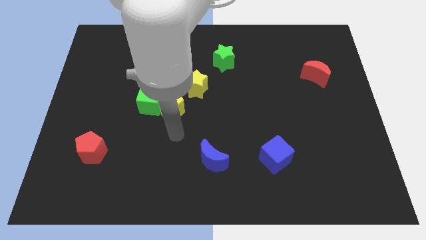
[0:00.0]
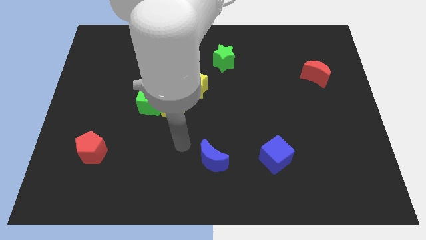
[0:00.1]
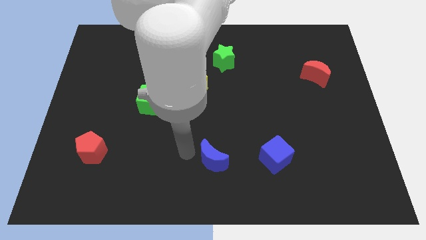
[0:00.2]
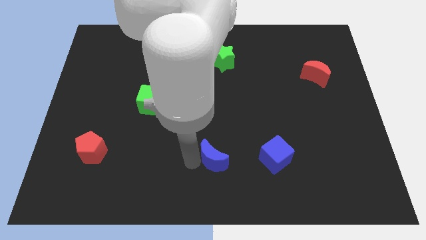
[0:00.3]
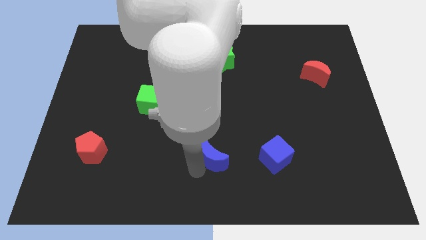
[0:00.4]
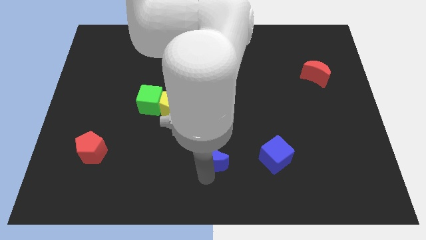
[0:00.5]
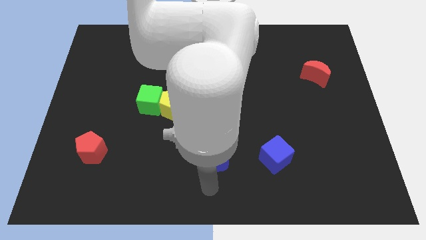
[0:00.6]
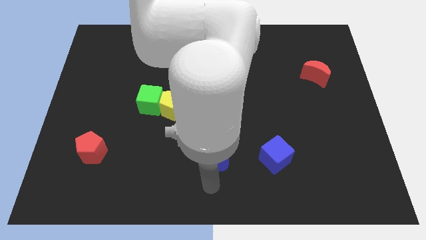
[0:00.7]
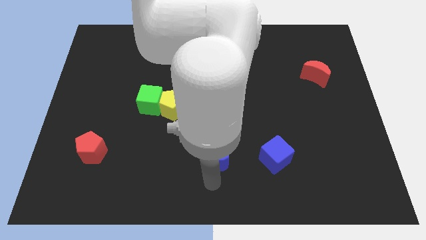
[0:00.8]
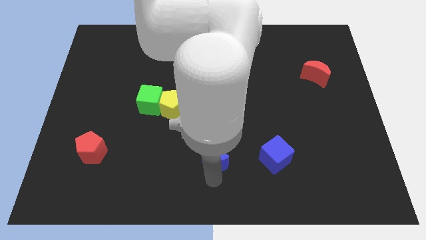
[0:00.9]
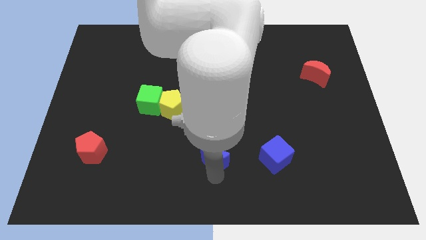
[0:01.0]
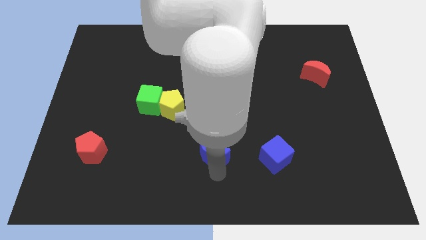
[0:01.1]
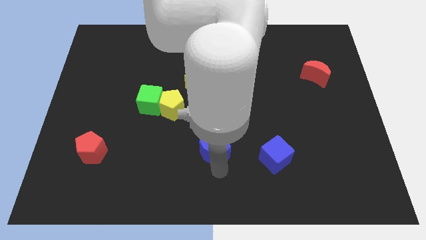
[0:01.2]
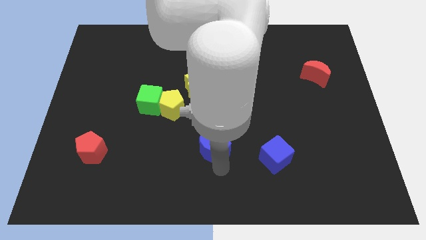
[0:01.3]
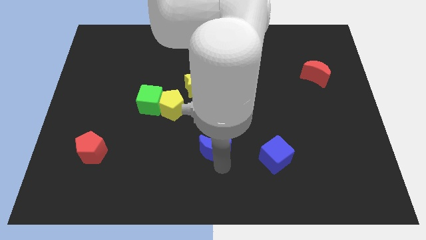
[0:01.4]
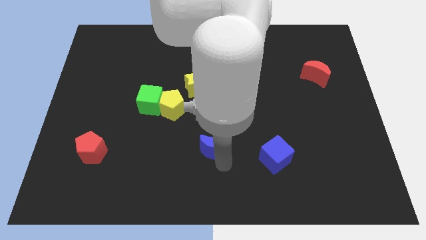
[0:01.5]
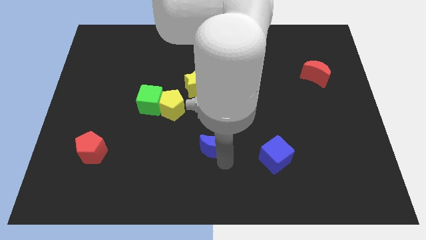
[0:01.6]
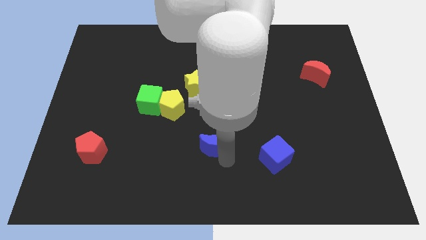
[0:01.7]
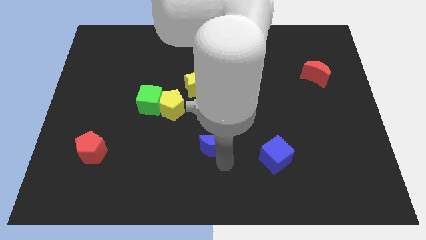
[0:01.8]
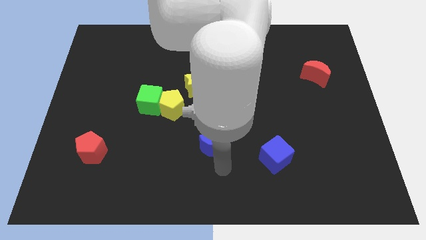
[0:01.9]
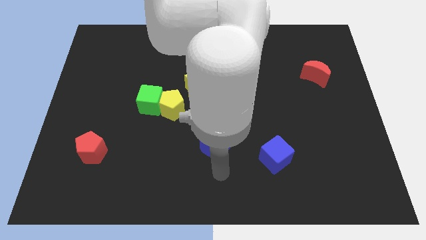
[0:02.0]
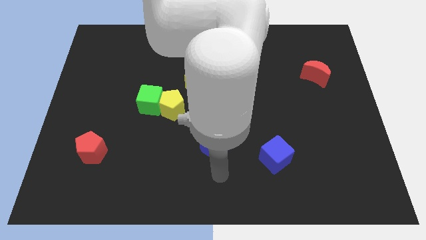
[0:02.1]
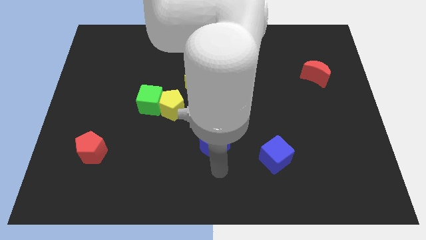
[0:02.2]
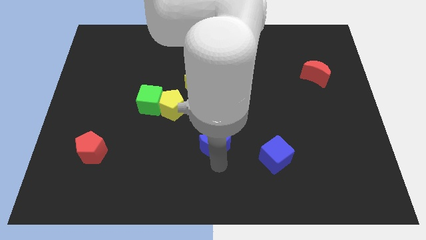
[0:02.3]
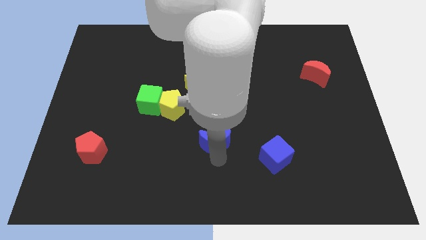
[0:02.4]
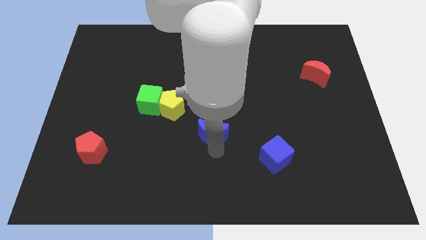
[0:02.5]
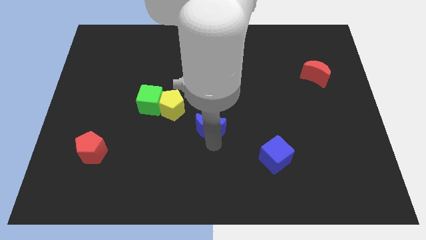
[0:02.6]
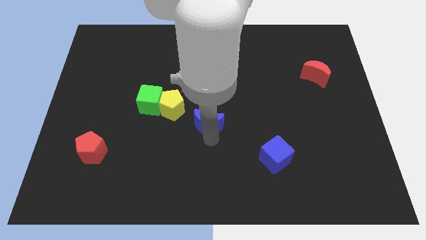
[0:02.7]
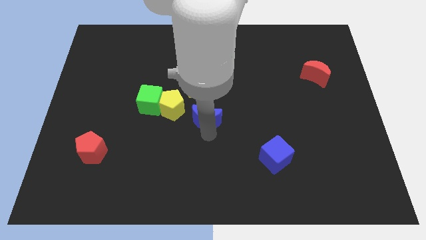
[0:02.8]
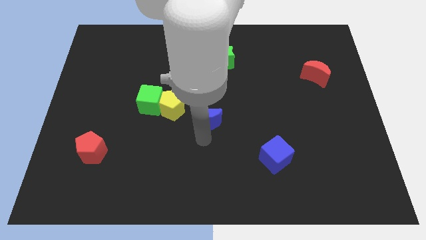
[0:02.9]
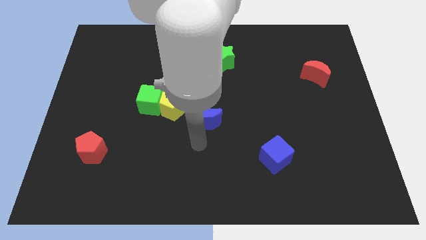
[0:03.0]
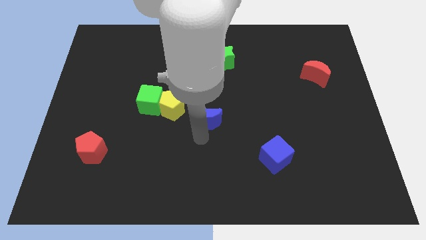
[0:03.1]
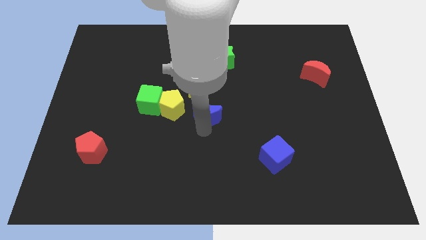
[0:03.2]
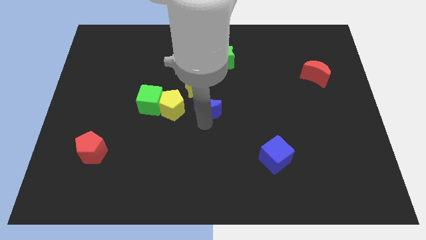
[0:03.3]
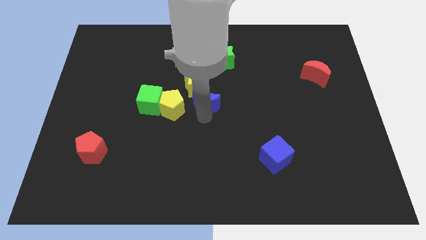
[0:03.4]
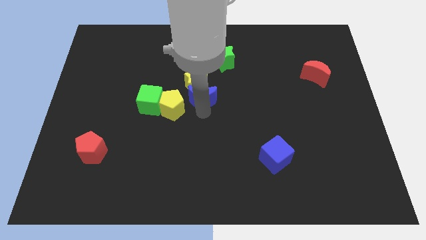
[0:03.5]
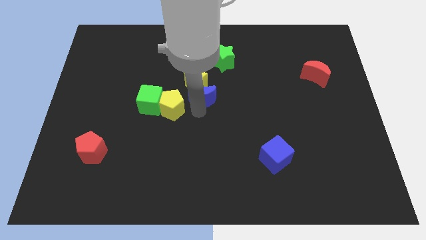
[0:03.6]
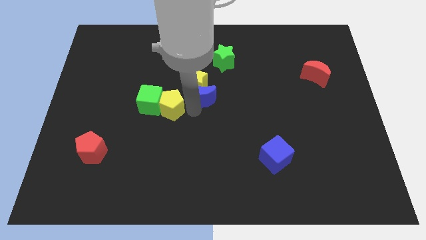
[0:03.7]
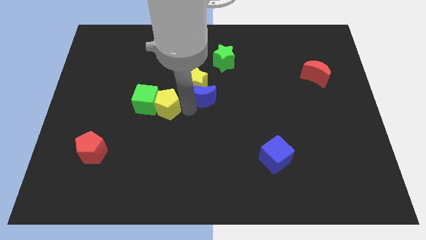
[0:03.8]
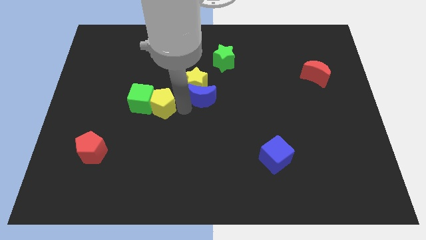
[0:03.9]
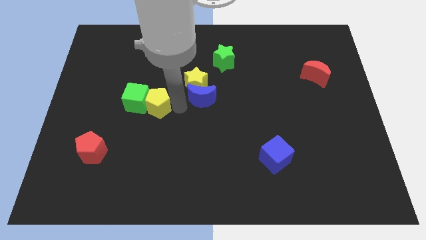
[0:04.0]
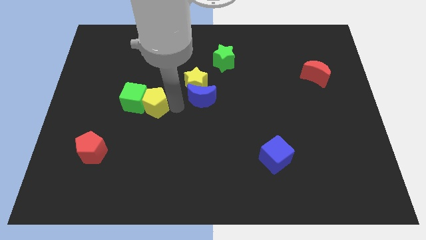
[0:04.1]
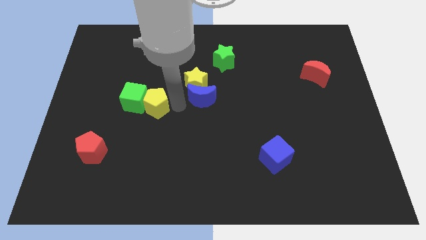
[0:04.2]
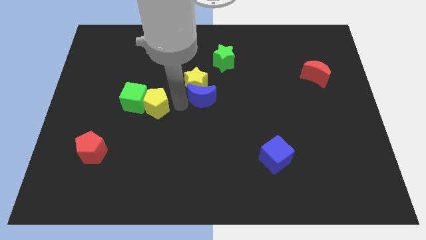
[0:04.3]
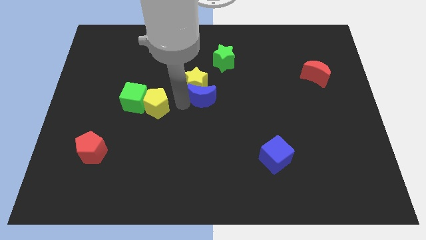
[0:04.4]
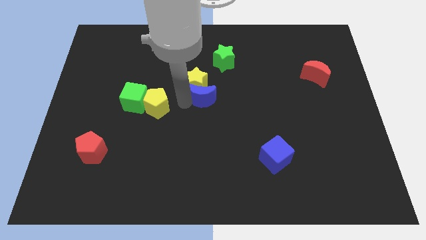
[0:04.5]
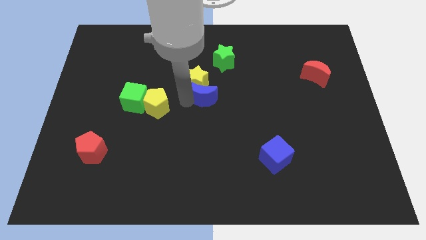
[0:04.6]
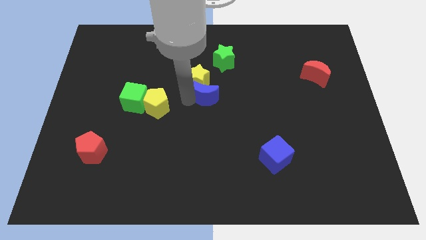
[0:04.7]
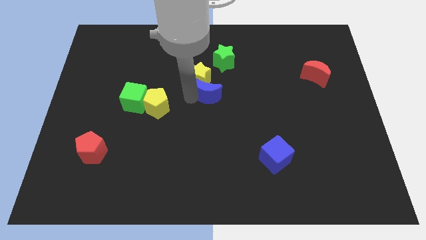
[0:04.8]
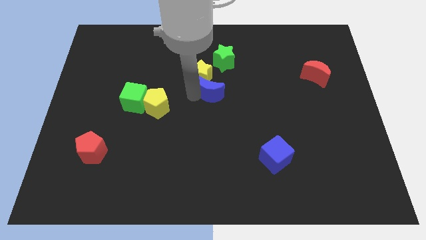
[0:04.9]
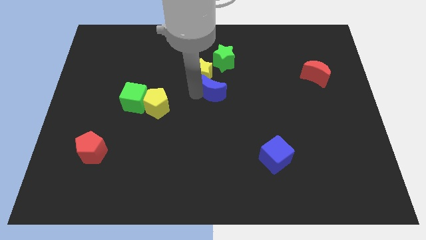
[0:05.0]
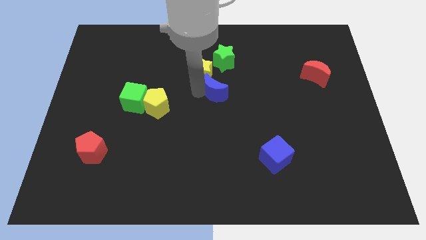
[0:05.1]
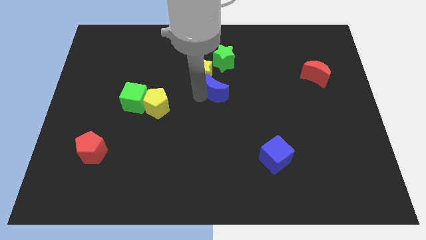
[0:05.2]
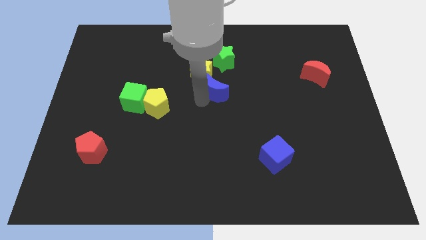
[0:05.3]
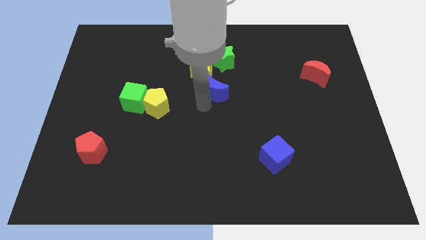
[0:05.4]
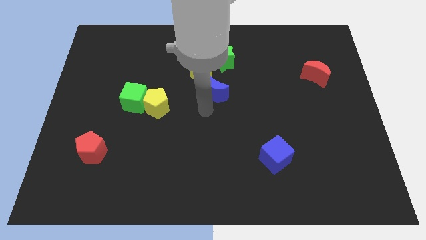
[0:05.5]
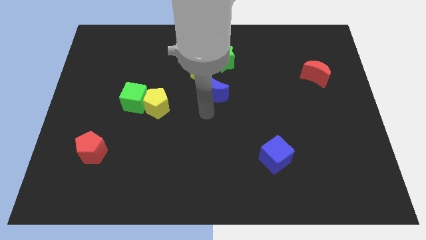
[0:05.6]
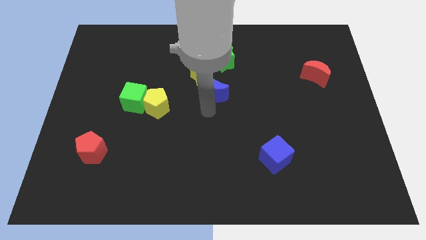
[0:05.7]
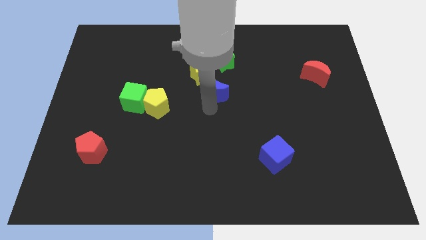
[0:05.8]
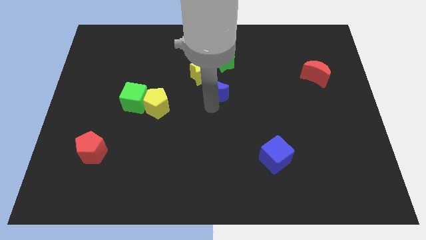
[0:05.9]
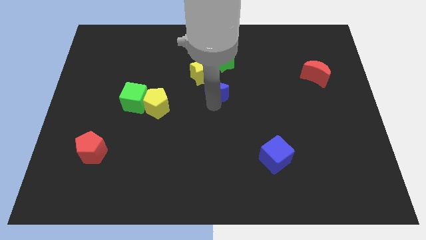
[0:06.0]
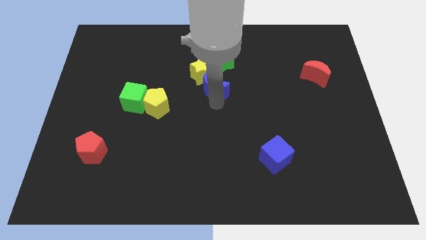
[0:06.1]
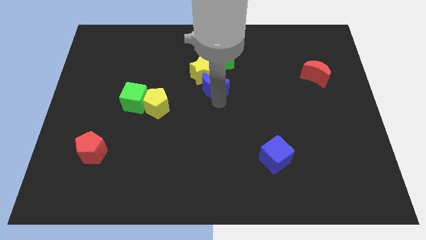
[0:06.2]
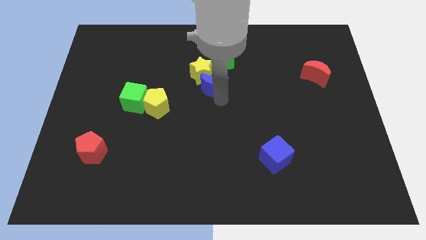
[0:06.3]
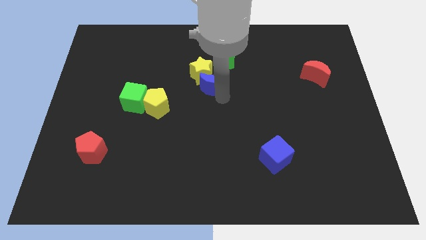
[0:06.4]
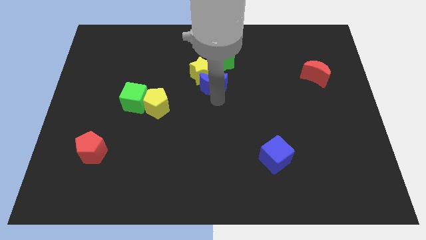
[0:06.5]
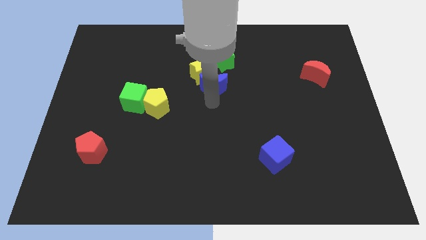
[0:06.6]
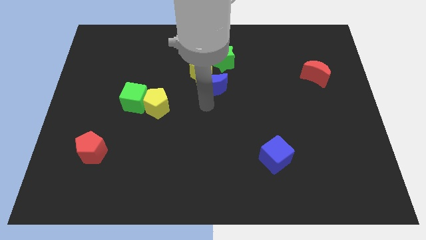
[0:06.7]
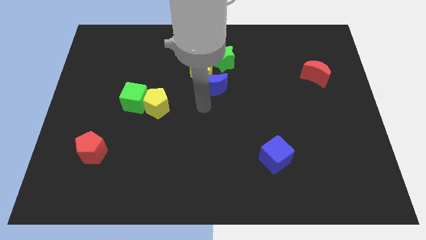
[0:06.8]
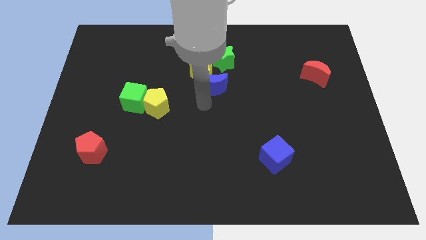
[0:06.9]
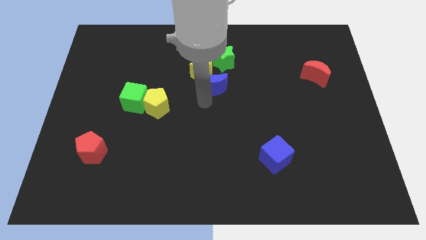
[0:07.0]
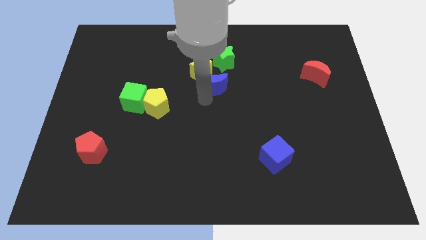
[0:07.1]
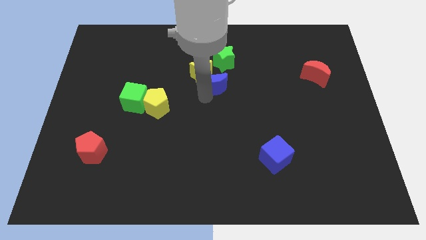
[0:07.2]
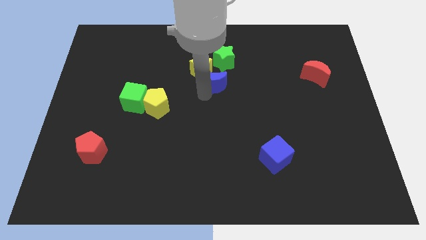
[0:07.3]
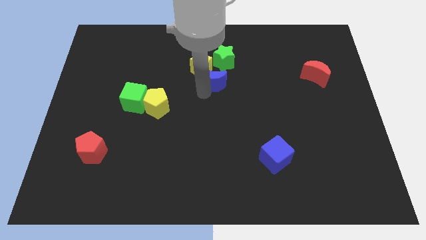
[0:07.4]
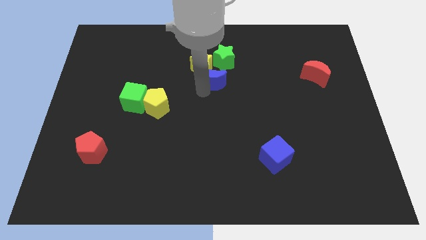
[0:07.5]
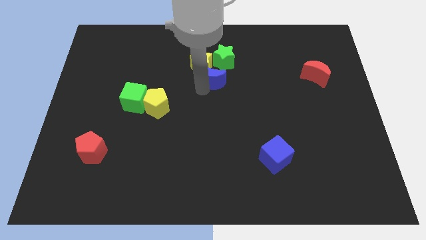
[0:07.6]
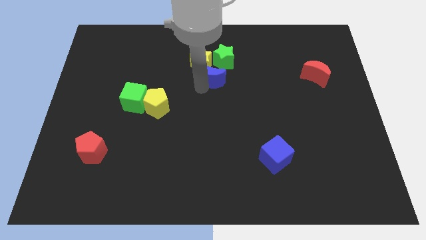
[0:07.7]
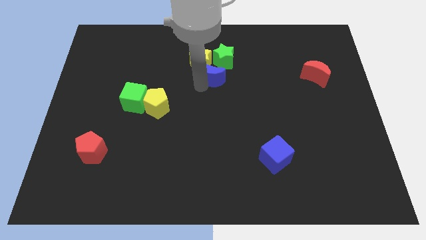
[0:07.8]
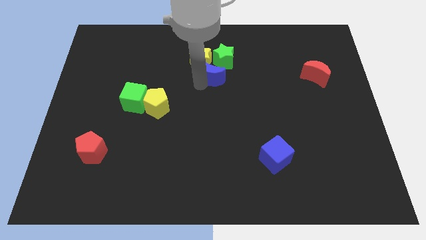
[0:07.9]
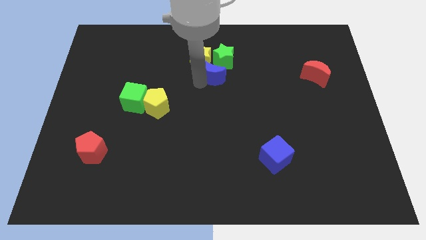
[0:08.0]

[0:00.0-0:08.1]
put the blue moon towards the green star
